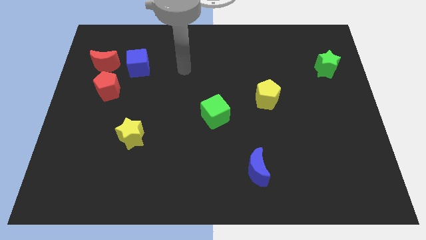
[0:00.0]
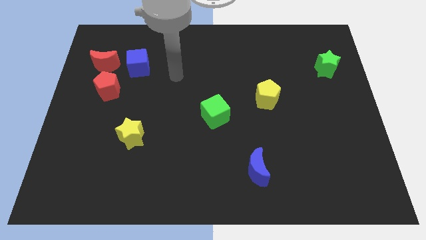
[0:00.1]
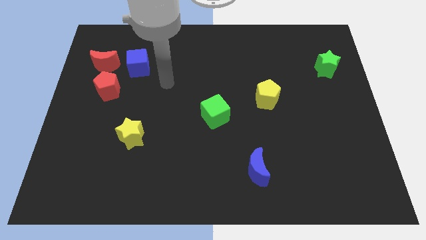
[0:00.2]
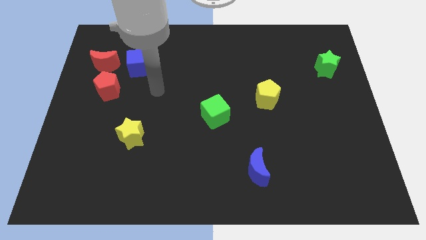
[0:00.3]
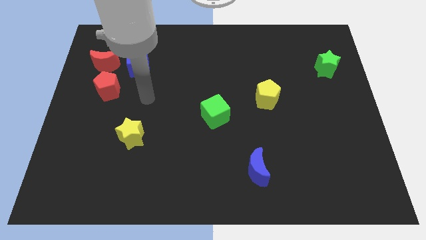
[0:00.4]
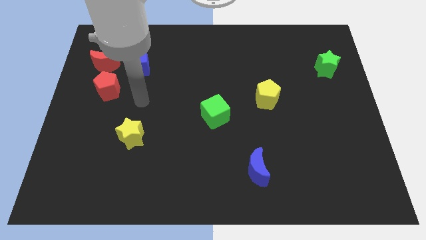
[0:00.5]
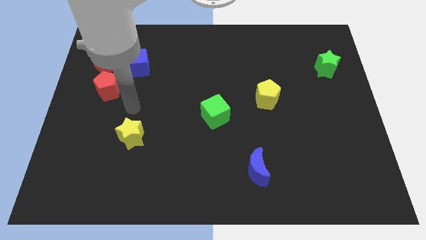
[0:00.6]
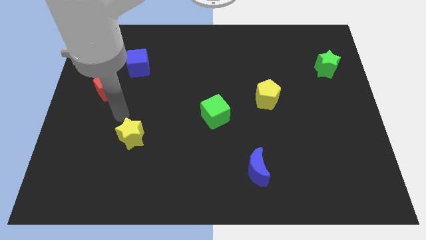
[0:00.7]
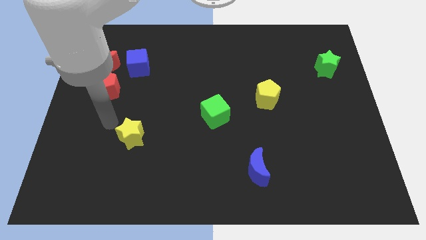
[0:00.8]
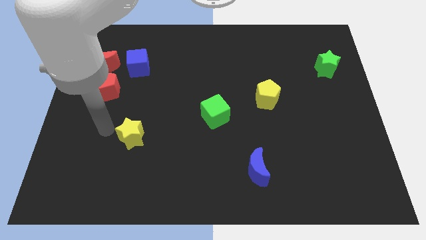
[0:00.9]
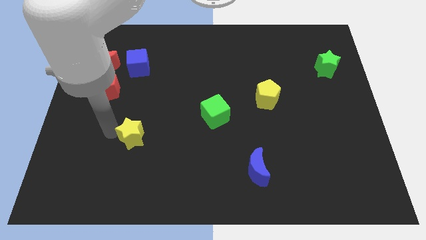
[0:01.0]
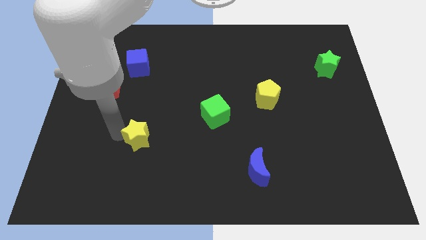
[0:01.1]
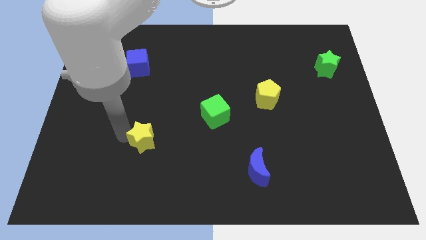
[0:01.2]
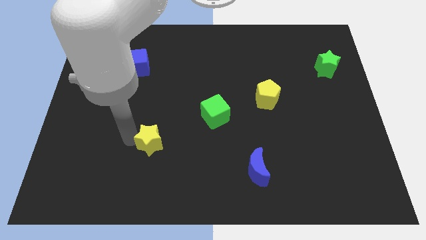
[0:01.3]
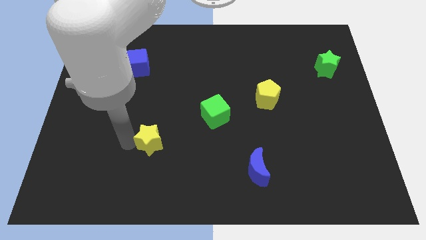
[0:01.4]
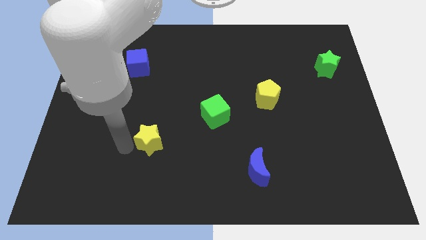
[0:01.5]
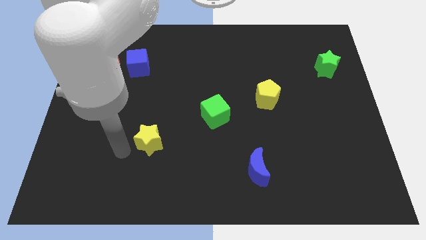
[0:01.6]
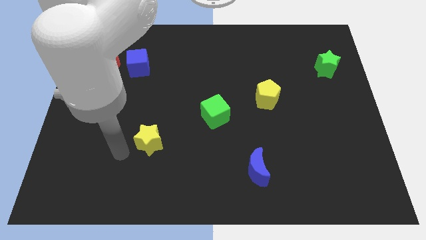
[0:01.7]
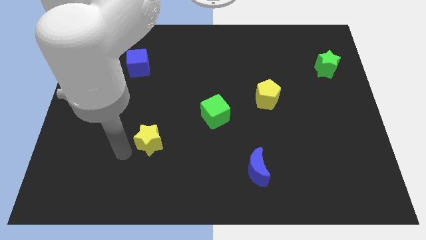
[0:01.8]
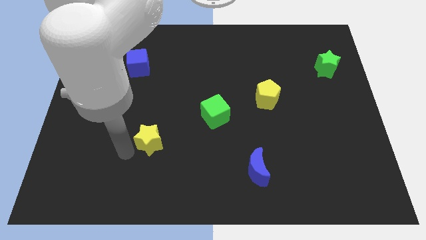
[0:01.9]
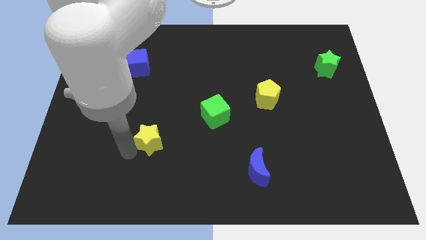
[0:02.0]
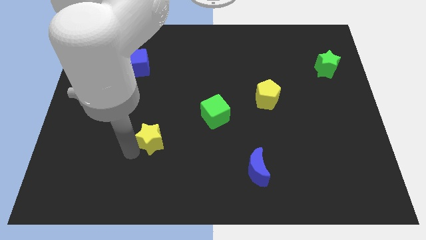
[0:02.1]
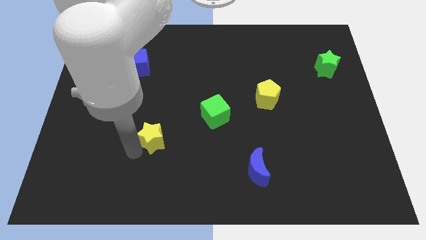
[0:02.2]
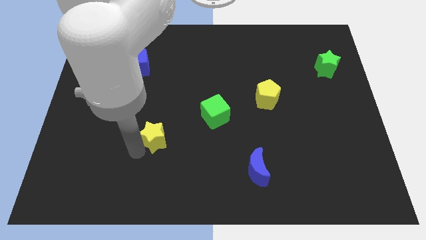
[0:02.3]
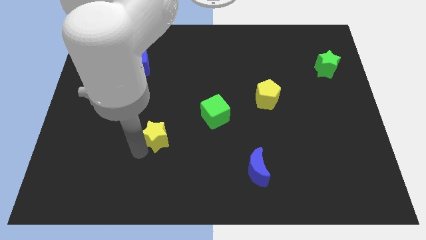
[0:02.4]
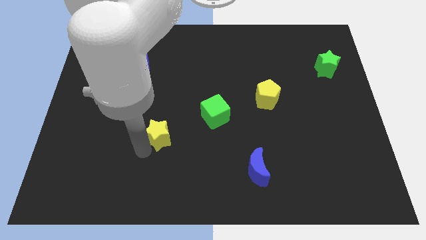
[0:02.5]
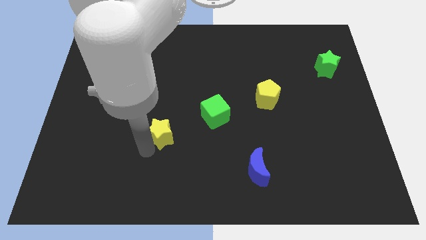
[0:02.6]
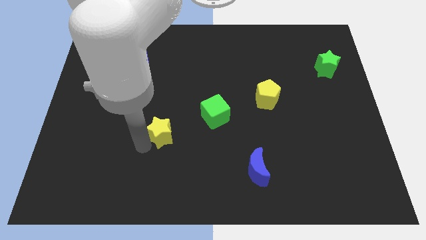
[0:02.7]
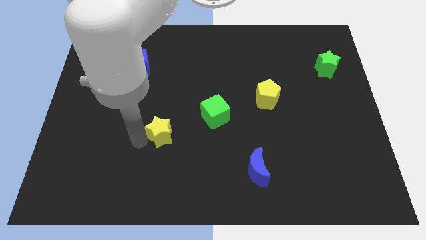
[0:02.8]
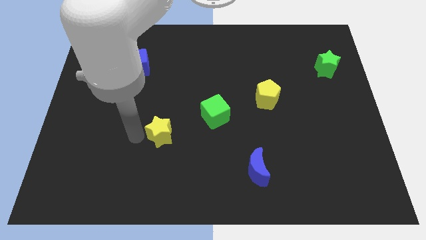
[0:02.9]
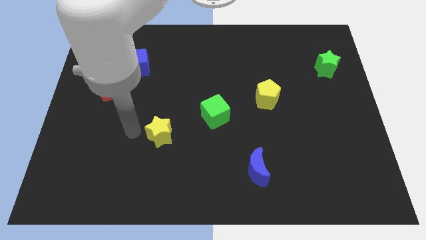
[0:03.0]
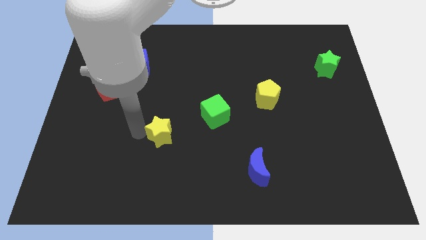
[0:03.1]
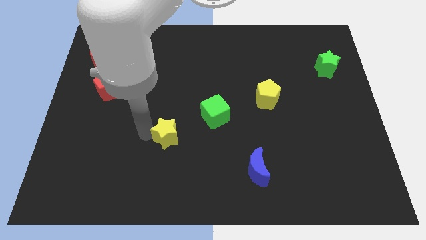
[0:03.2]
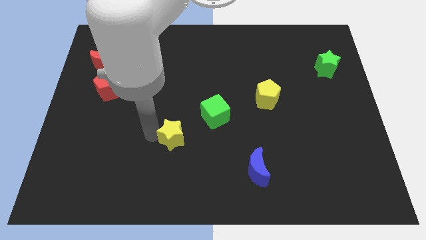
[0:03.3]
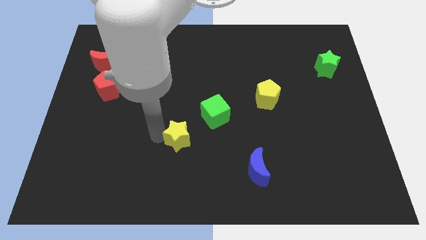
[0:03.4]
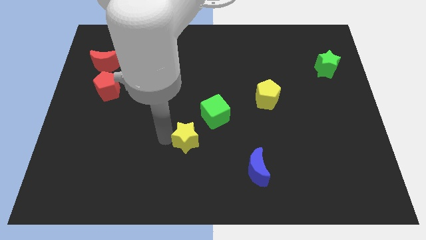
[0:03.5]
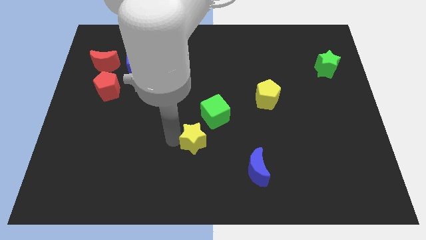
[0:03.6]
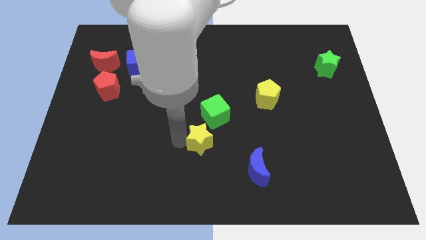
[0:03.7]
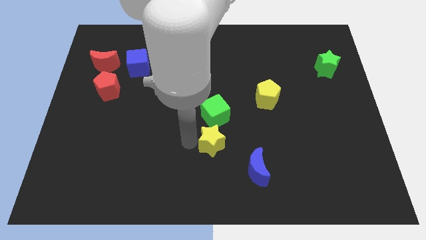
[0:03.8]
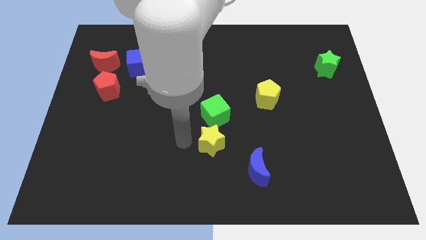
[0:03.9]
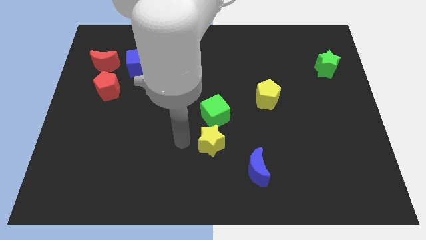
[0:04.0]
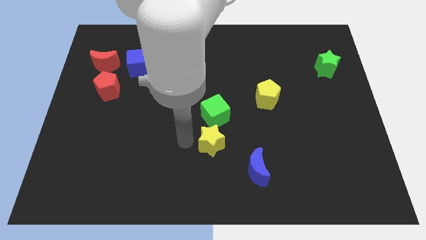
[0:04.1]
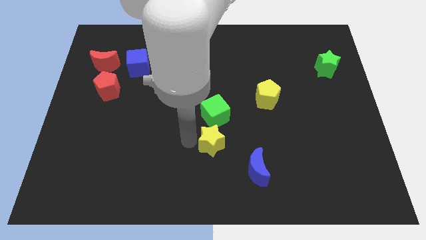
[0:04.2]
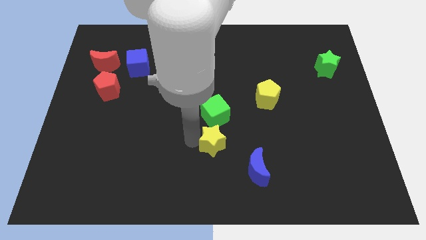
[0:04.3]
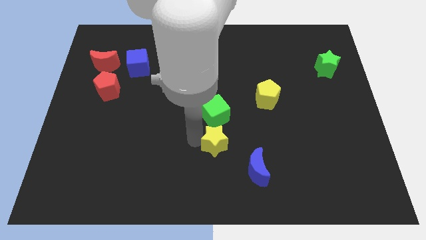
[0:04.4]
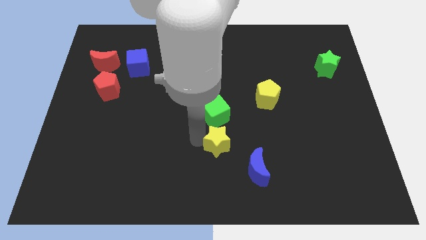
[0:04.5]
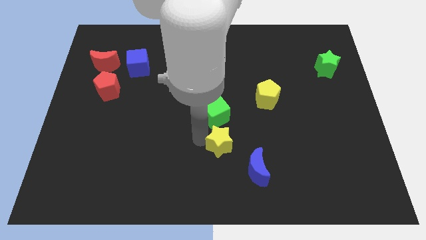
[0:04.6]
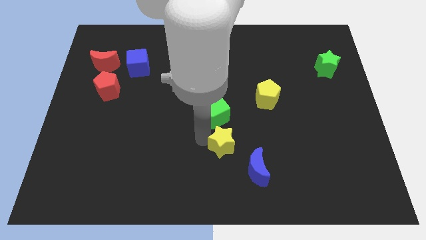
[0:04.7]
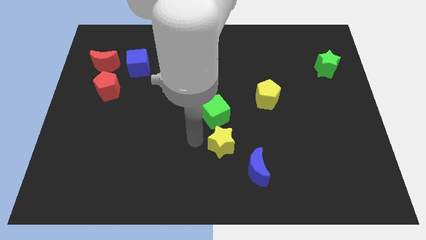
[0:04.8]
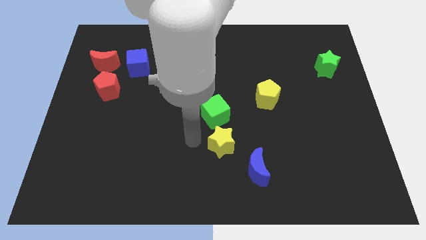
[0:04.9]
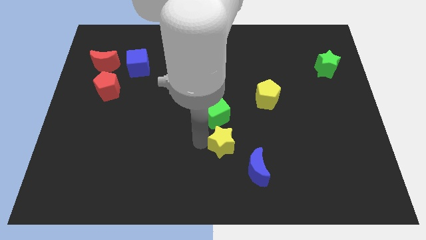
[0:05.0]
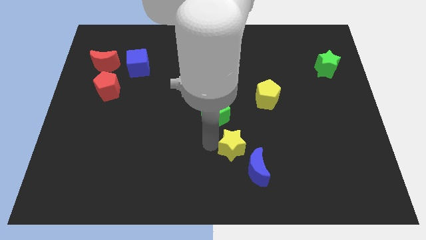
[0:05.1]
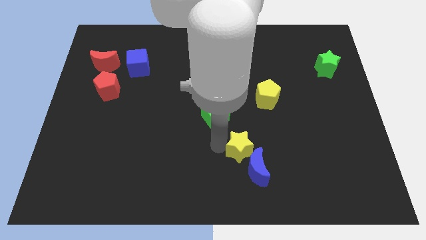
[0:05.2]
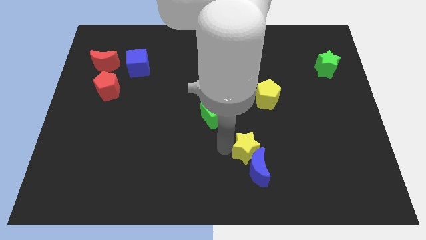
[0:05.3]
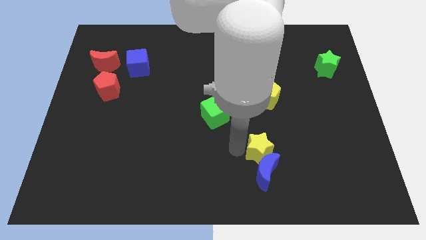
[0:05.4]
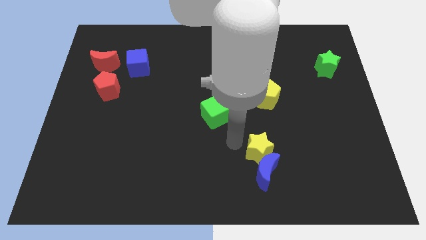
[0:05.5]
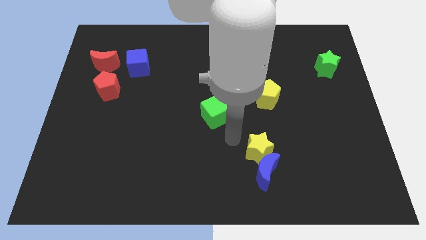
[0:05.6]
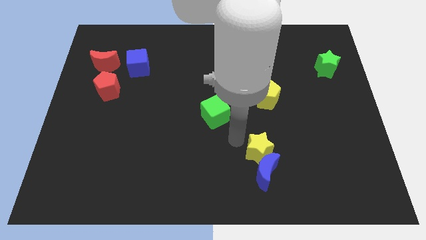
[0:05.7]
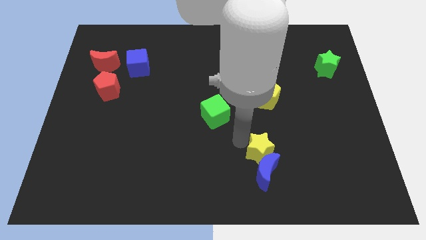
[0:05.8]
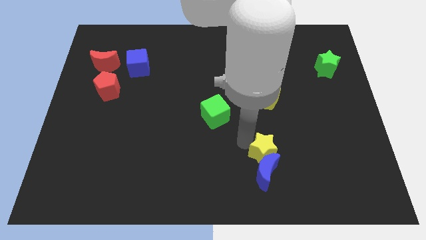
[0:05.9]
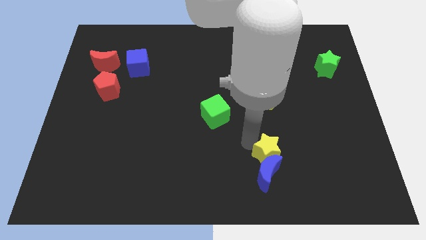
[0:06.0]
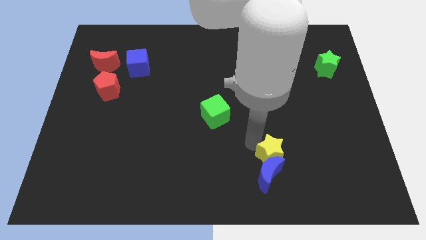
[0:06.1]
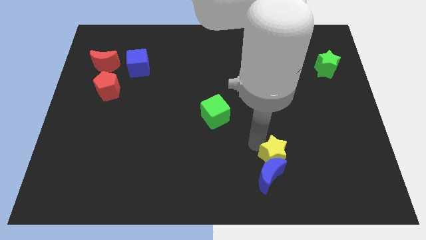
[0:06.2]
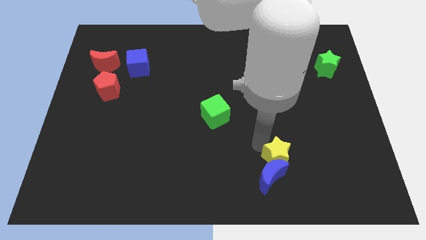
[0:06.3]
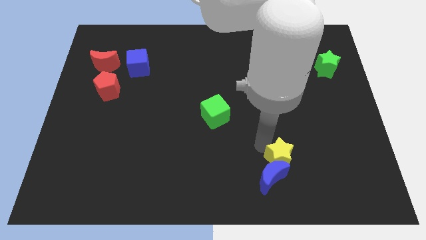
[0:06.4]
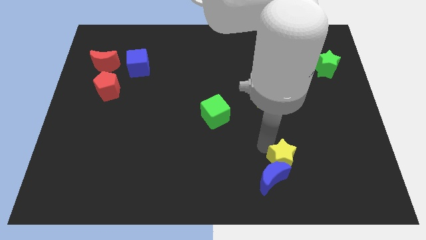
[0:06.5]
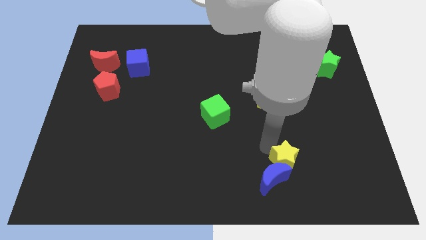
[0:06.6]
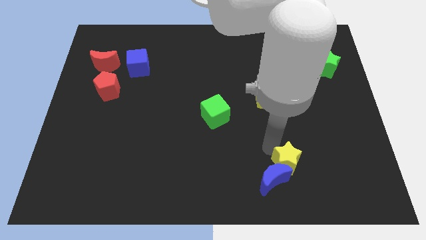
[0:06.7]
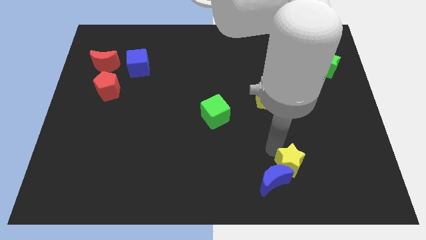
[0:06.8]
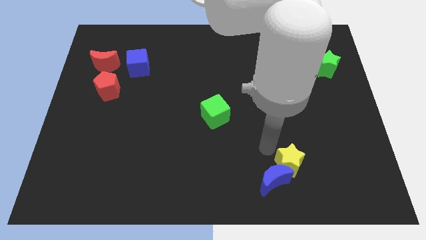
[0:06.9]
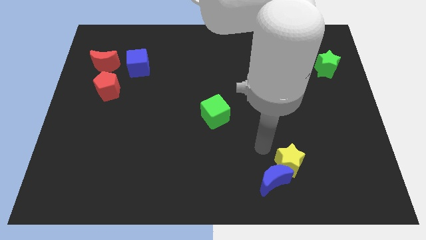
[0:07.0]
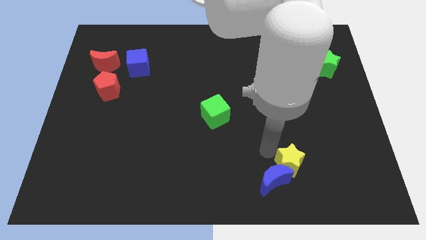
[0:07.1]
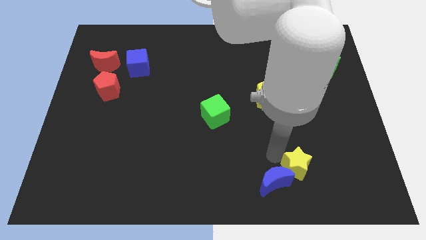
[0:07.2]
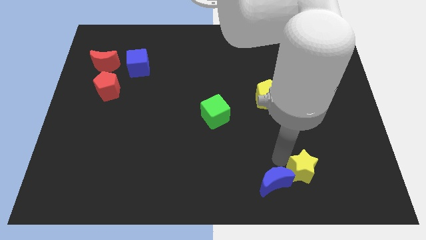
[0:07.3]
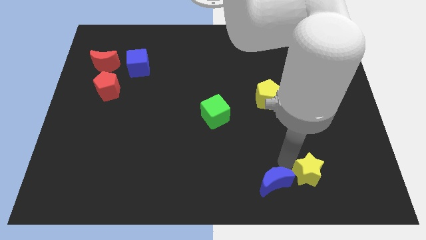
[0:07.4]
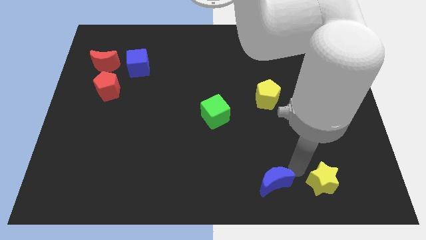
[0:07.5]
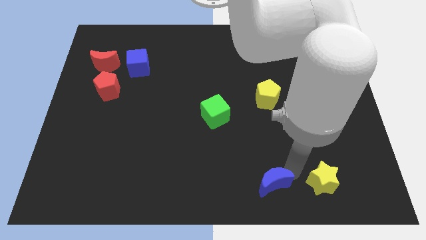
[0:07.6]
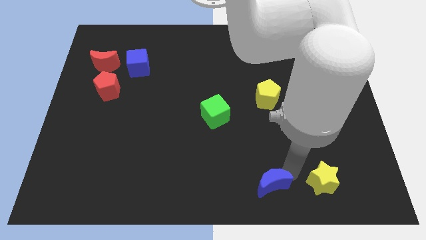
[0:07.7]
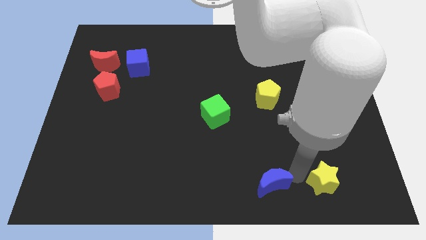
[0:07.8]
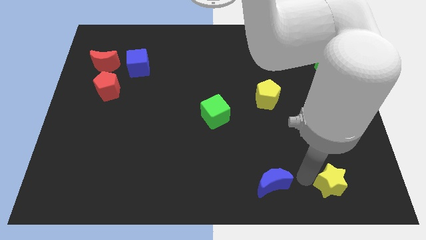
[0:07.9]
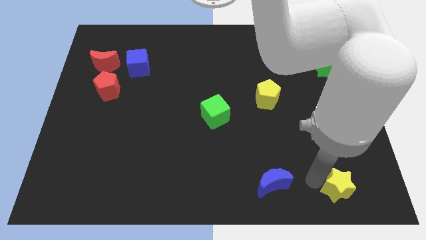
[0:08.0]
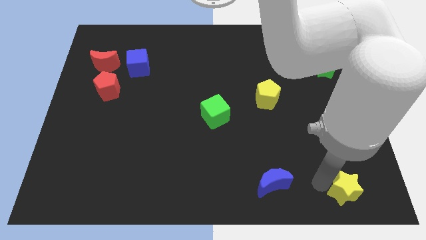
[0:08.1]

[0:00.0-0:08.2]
move the yellow star to the lower right corner

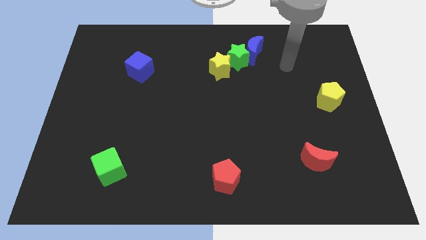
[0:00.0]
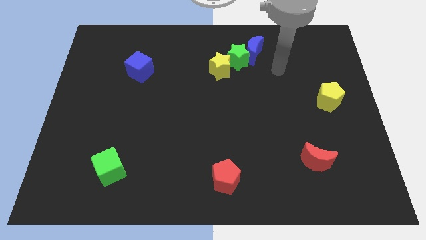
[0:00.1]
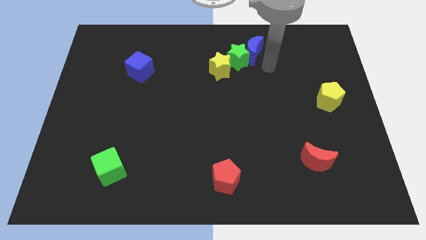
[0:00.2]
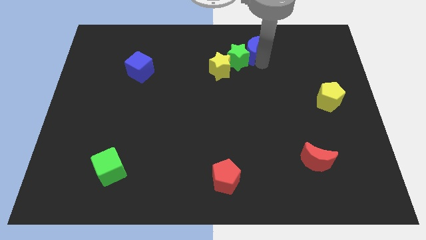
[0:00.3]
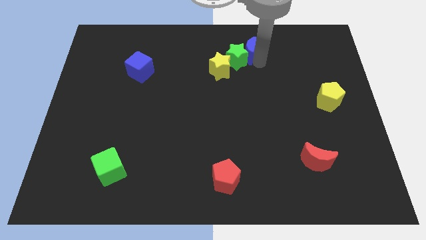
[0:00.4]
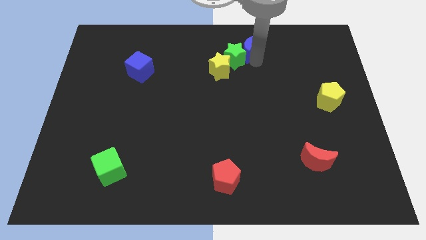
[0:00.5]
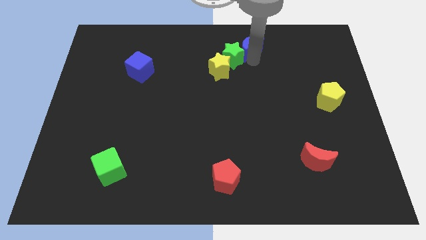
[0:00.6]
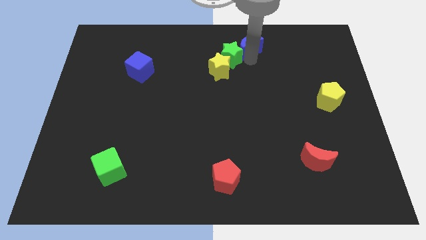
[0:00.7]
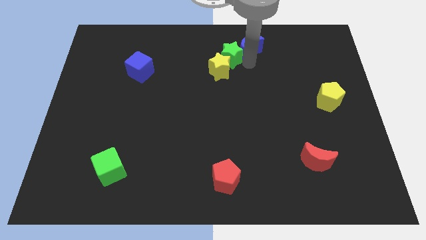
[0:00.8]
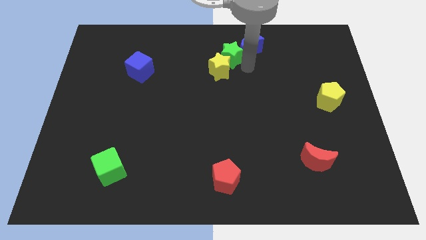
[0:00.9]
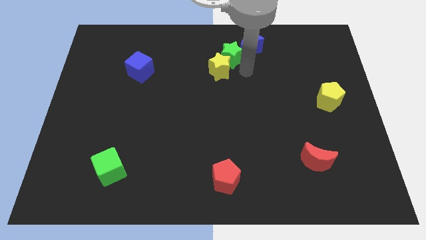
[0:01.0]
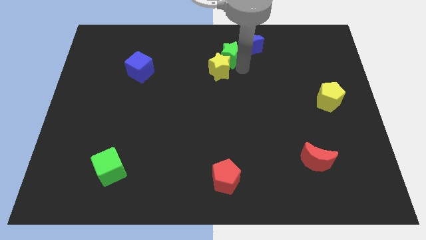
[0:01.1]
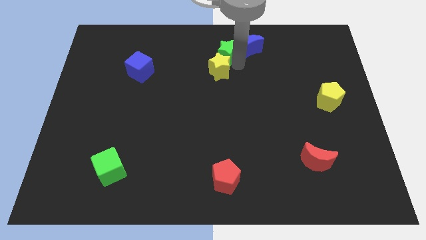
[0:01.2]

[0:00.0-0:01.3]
move the green star to the top
